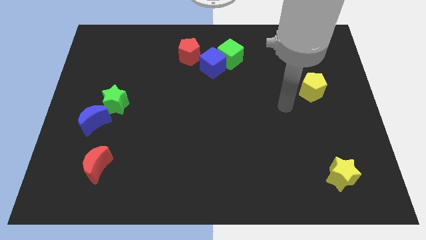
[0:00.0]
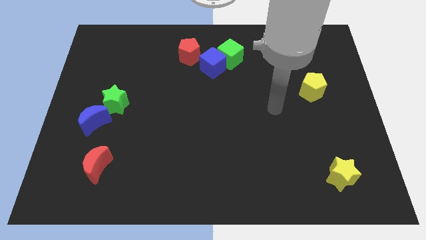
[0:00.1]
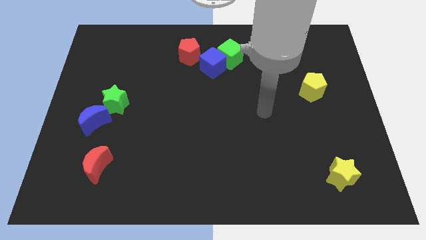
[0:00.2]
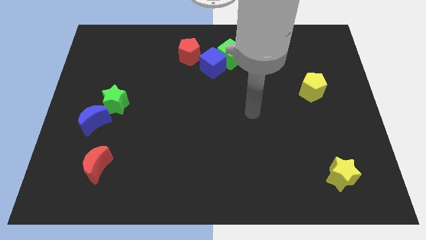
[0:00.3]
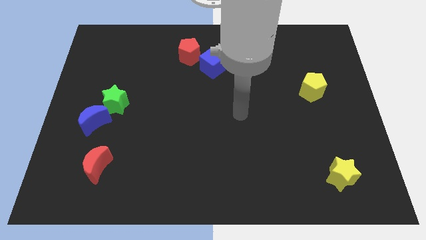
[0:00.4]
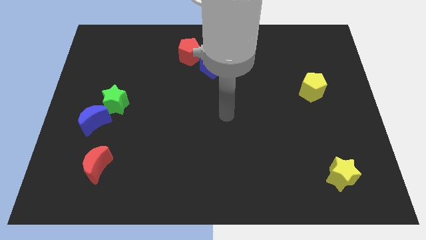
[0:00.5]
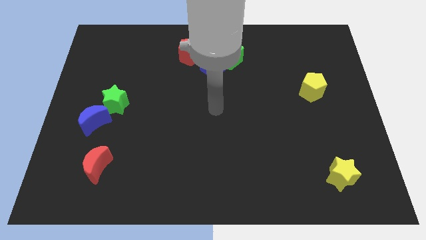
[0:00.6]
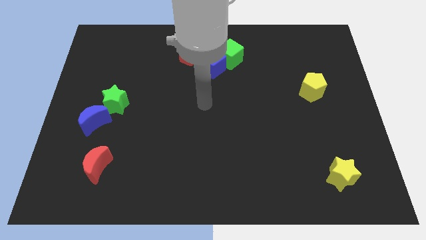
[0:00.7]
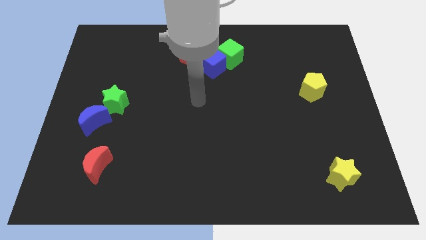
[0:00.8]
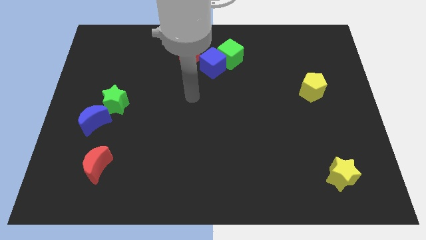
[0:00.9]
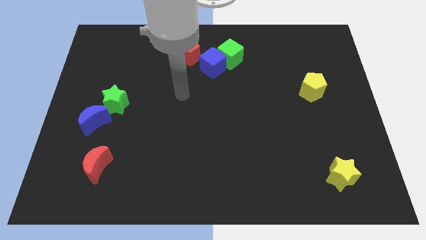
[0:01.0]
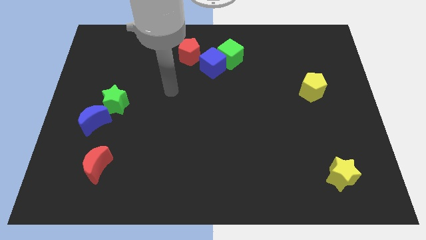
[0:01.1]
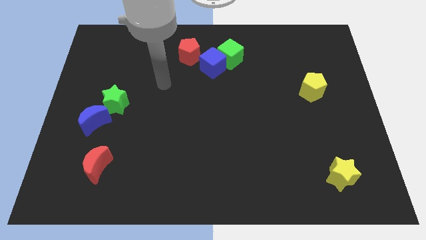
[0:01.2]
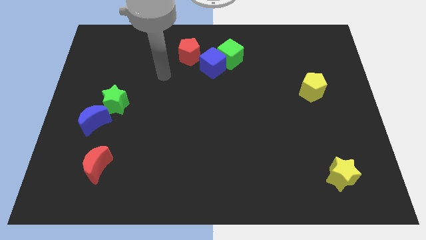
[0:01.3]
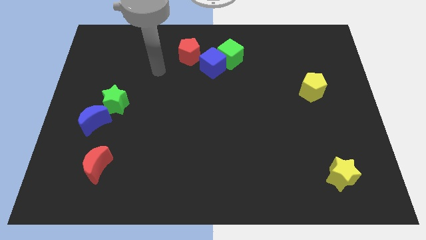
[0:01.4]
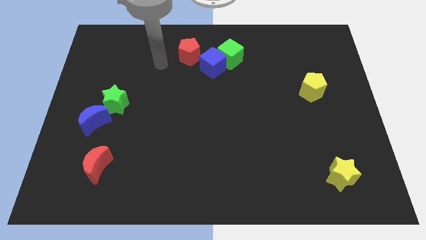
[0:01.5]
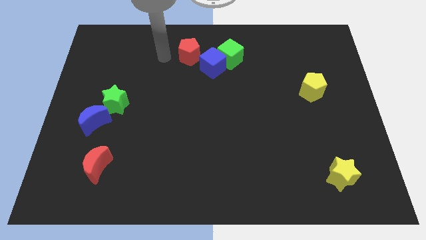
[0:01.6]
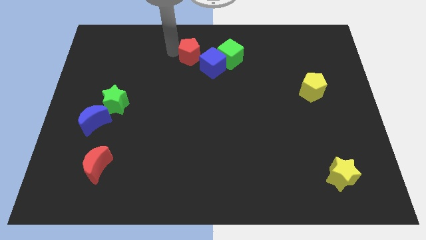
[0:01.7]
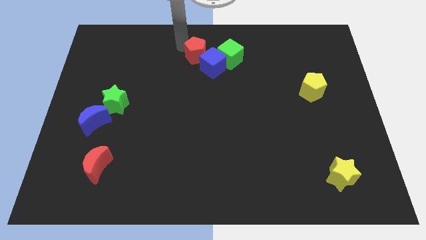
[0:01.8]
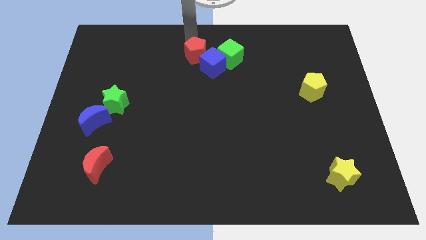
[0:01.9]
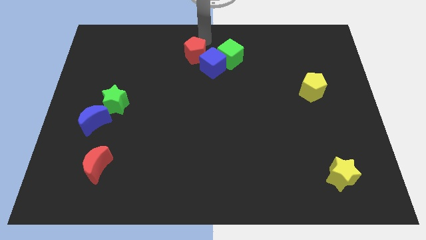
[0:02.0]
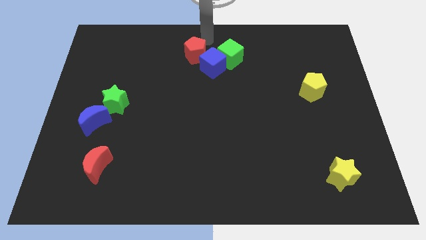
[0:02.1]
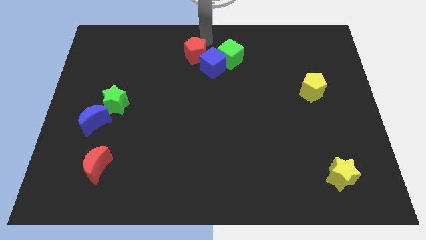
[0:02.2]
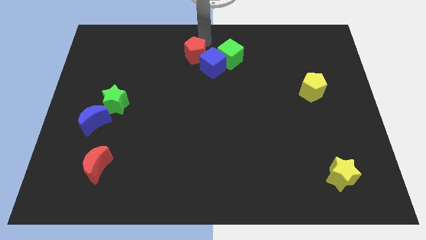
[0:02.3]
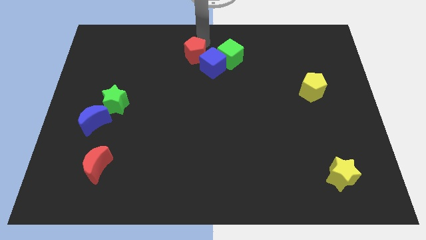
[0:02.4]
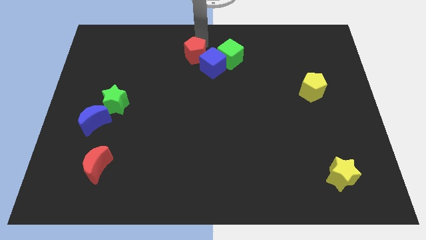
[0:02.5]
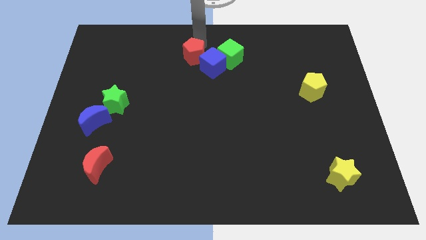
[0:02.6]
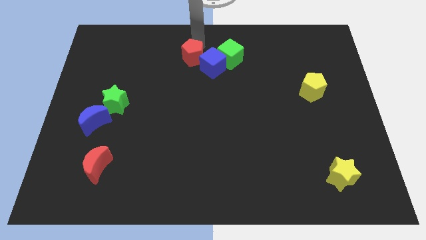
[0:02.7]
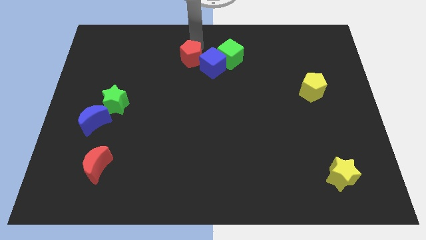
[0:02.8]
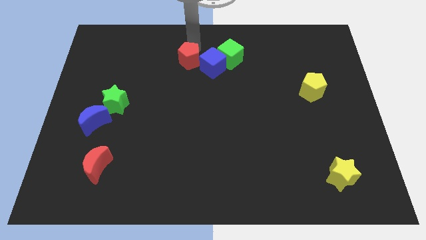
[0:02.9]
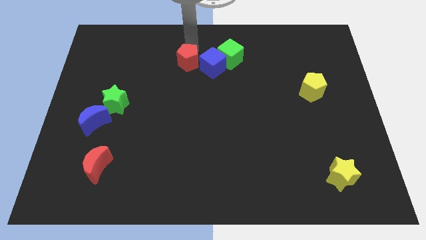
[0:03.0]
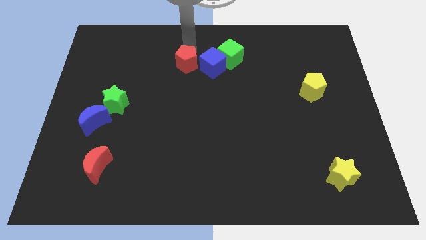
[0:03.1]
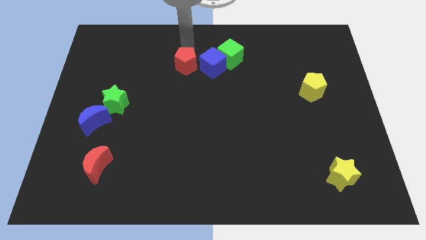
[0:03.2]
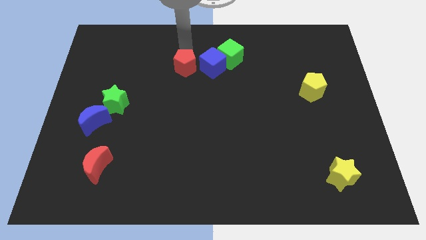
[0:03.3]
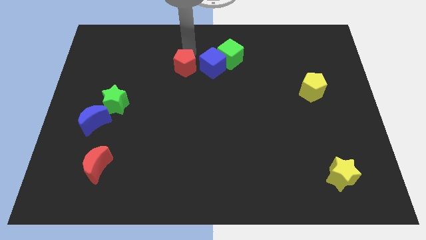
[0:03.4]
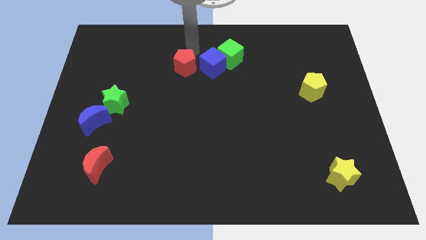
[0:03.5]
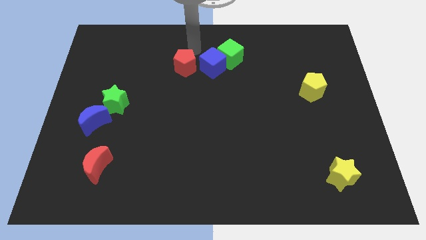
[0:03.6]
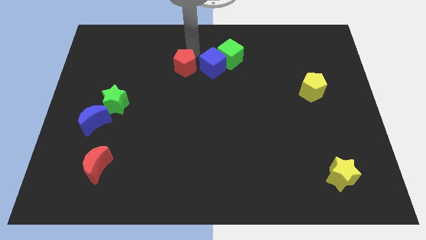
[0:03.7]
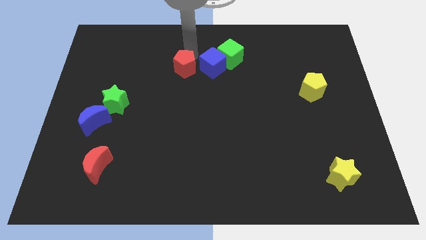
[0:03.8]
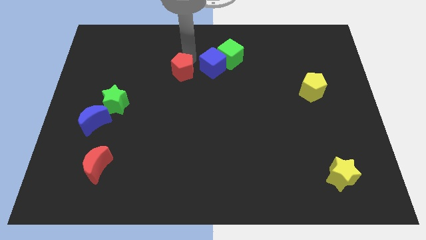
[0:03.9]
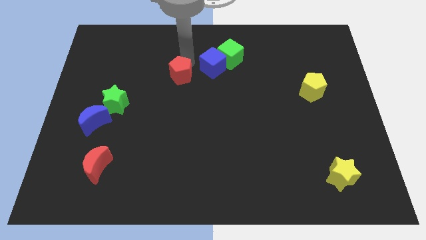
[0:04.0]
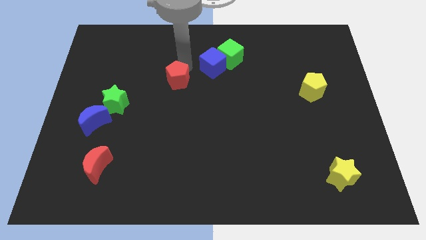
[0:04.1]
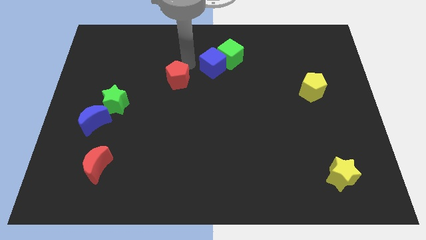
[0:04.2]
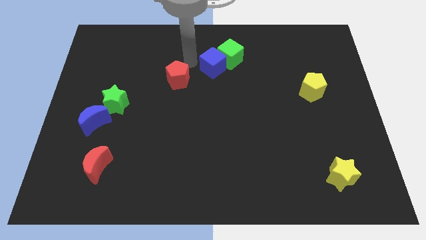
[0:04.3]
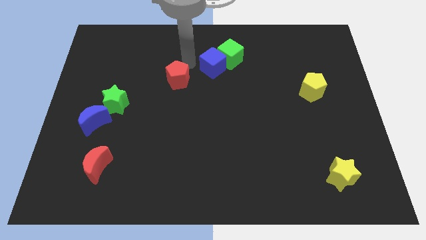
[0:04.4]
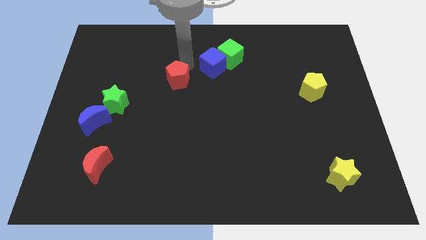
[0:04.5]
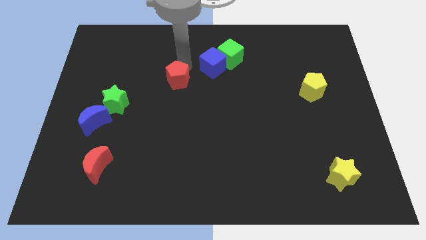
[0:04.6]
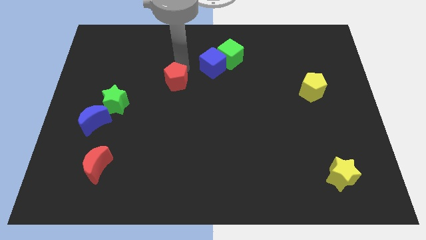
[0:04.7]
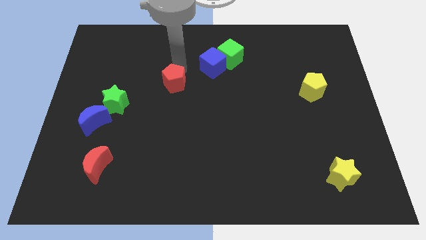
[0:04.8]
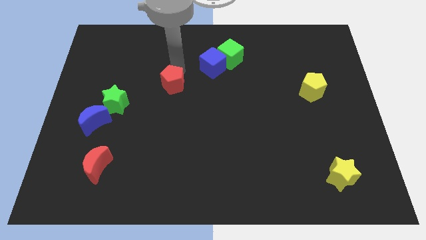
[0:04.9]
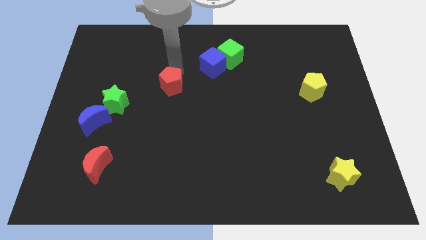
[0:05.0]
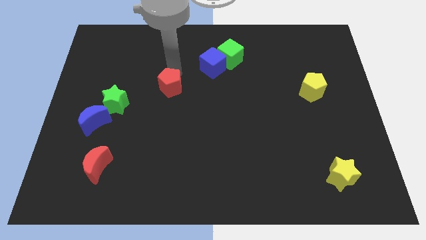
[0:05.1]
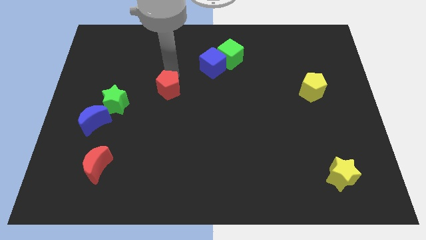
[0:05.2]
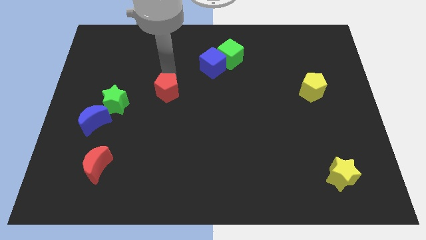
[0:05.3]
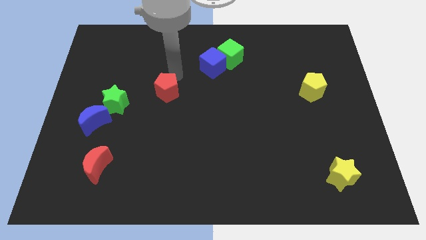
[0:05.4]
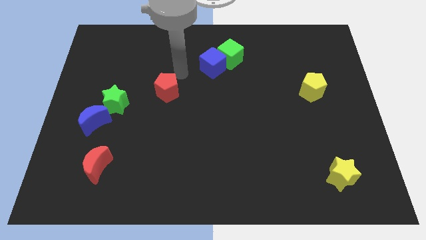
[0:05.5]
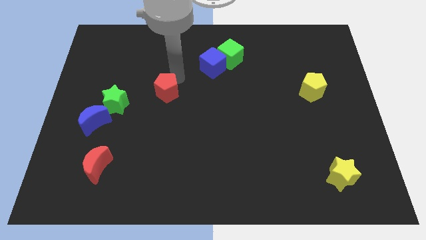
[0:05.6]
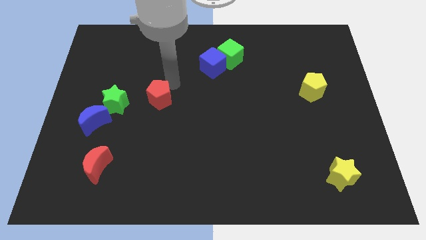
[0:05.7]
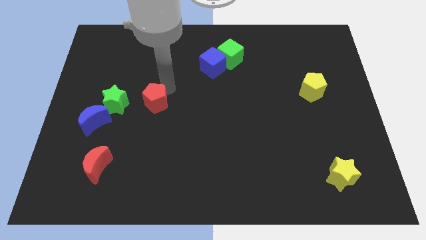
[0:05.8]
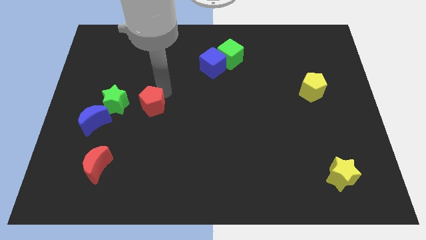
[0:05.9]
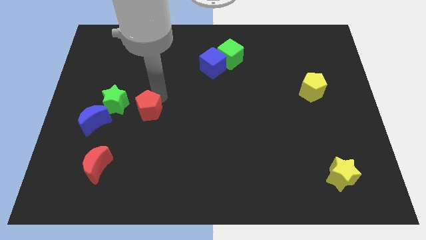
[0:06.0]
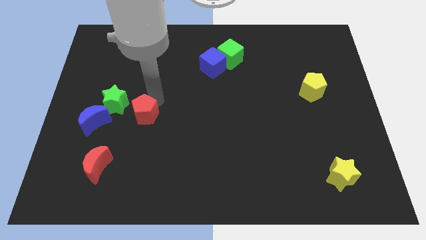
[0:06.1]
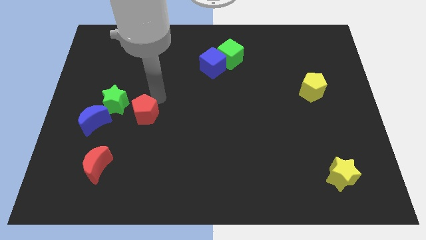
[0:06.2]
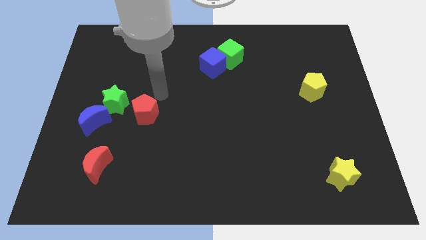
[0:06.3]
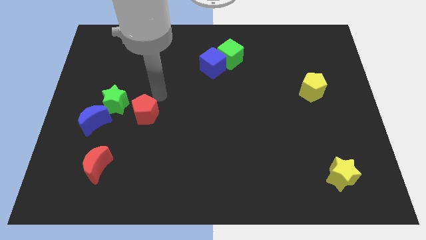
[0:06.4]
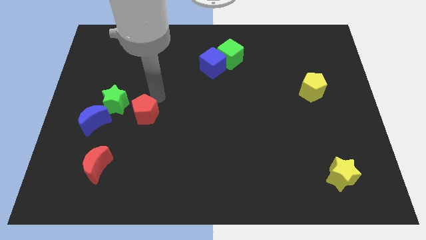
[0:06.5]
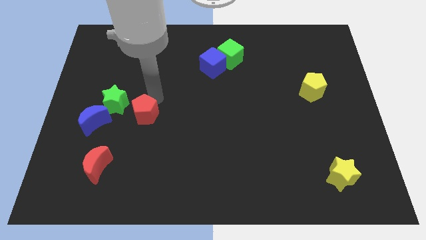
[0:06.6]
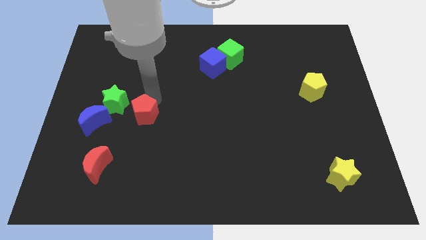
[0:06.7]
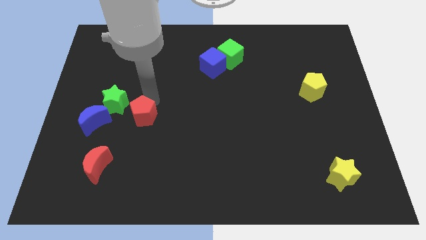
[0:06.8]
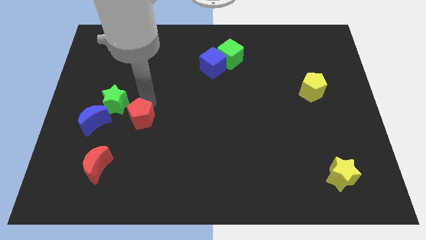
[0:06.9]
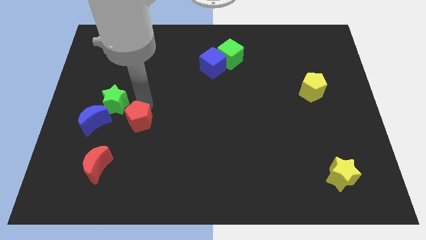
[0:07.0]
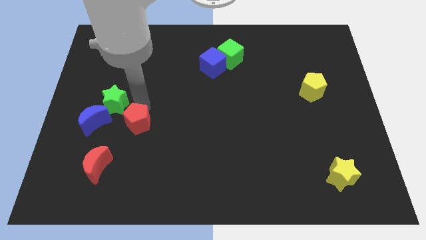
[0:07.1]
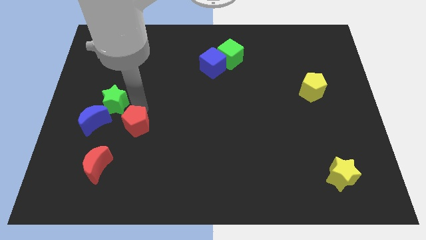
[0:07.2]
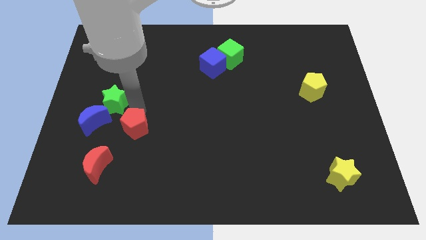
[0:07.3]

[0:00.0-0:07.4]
put the red pentagon to the top right of the red moon
